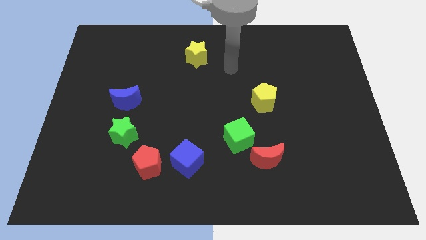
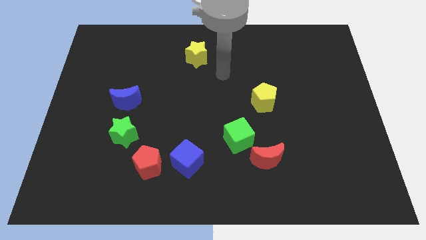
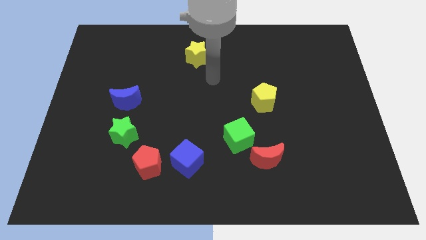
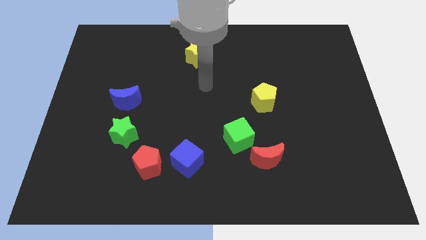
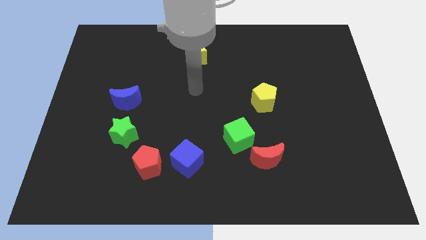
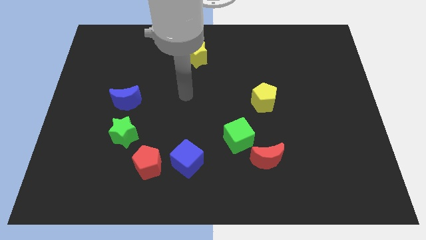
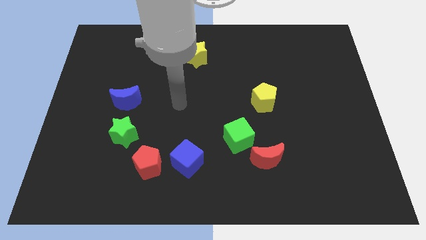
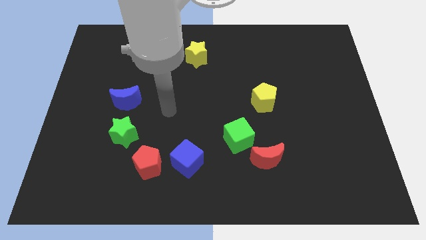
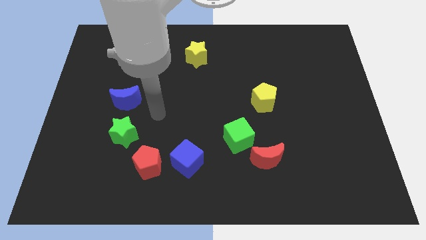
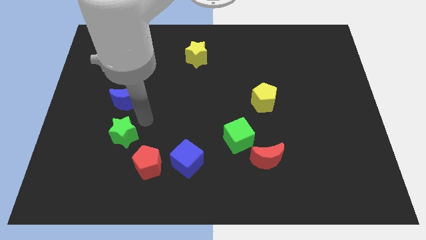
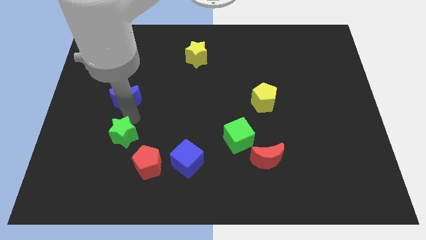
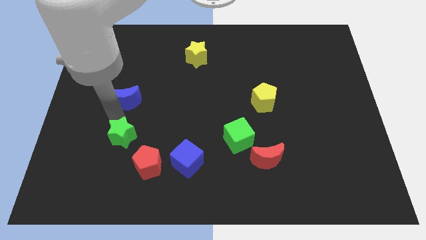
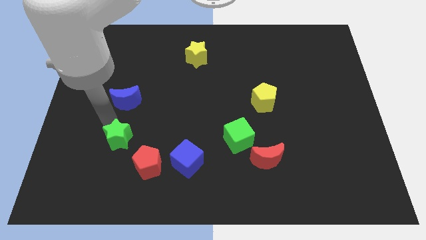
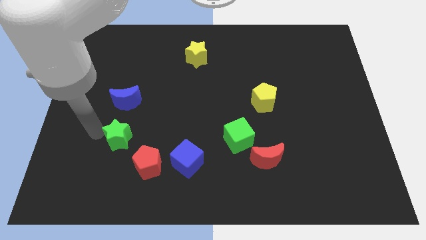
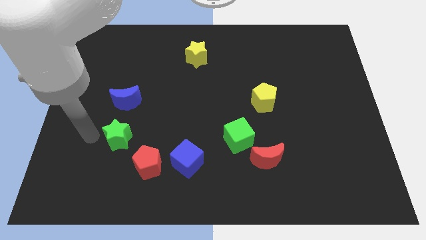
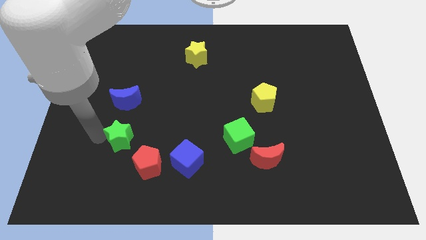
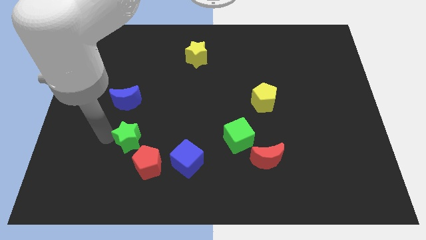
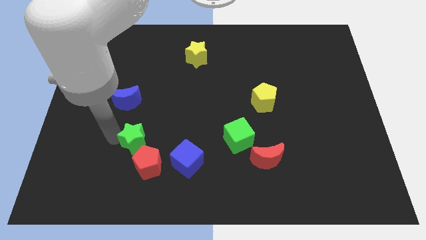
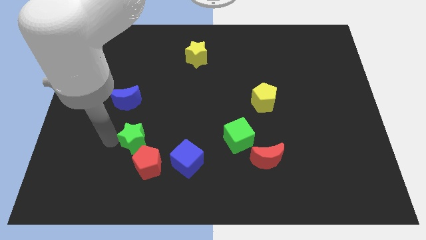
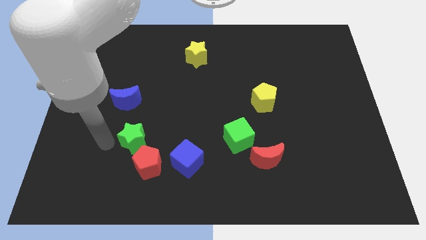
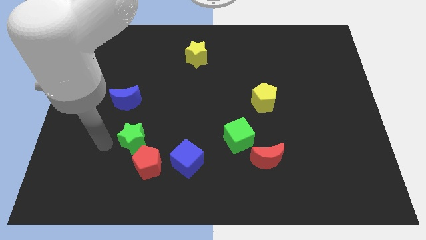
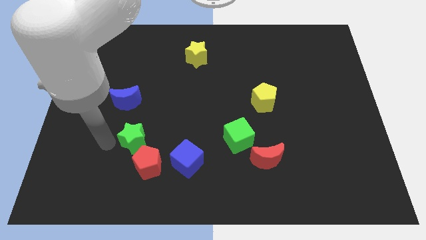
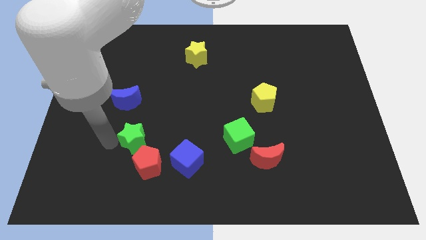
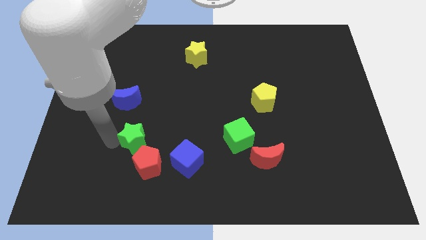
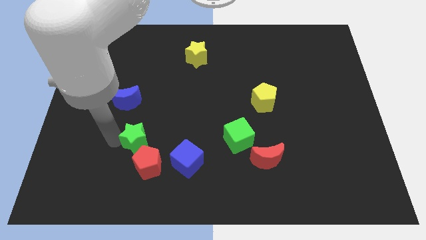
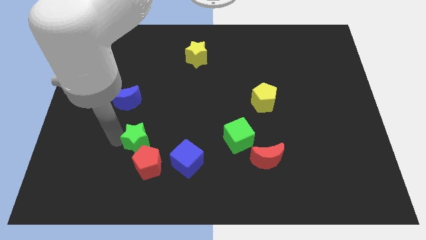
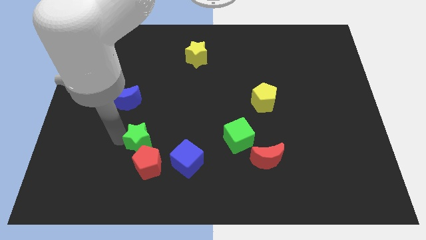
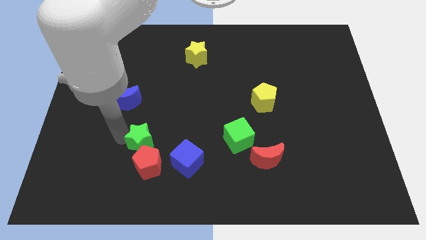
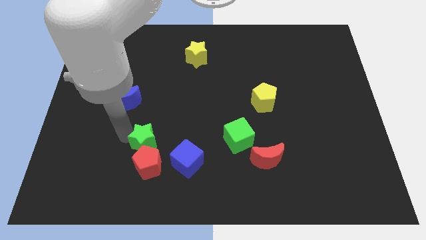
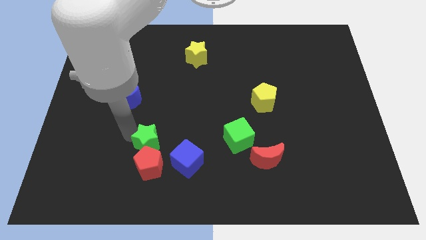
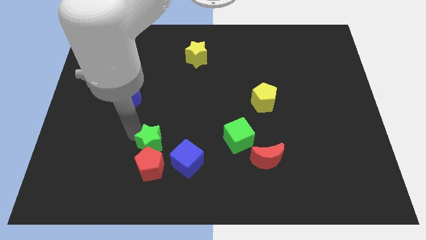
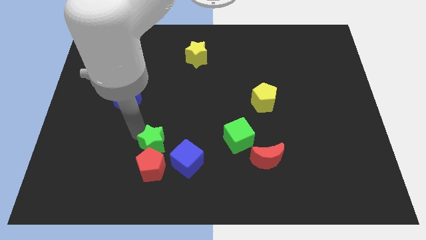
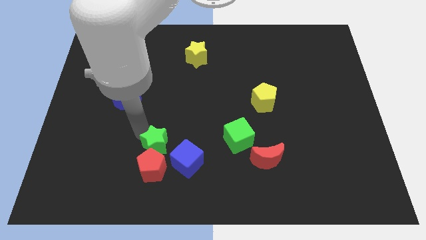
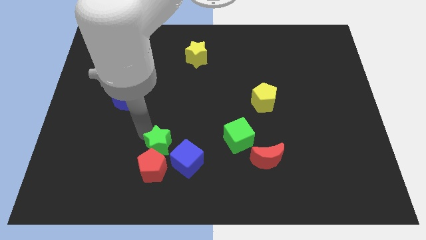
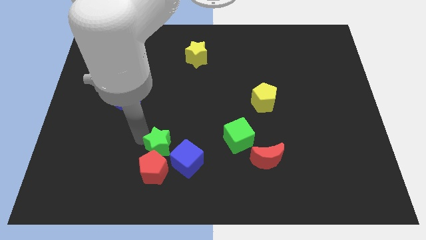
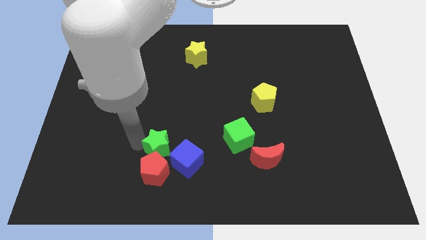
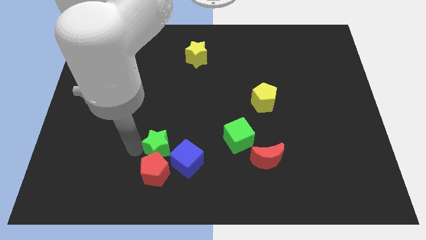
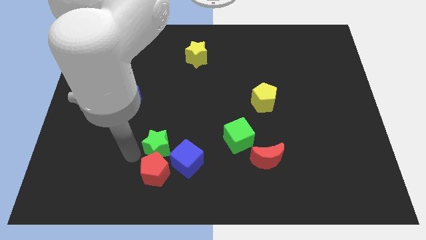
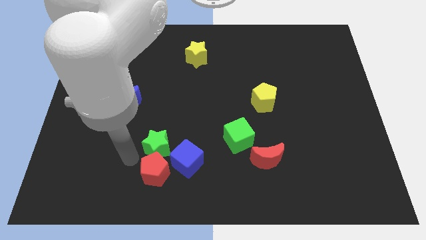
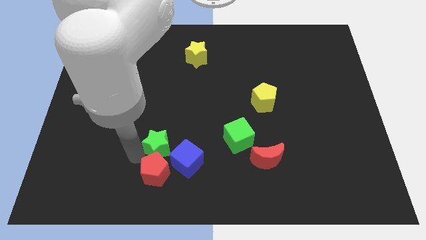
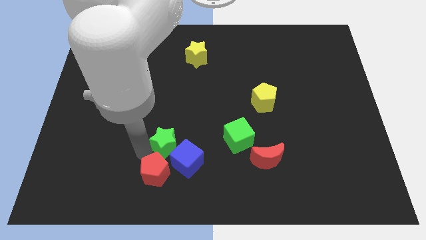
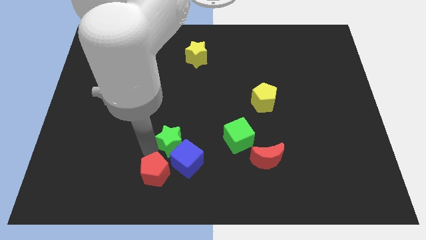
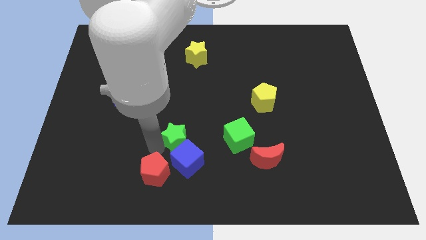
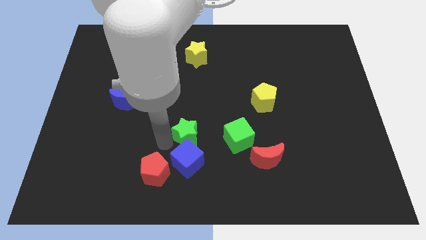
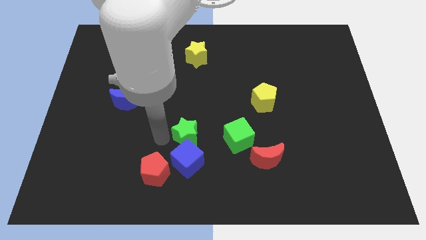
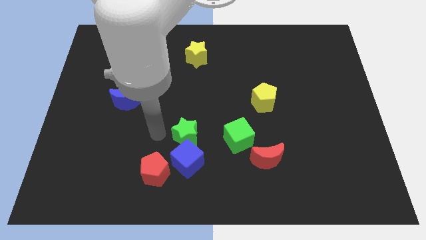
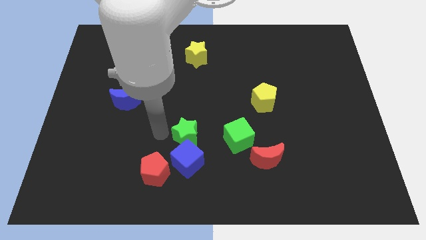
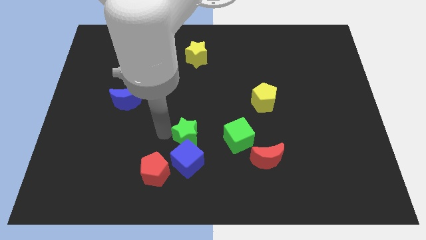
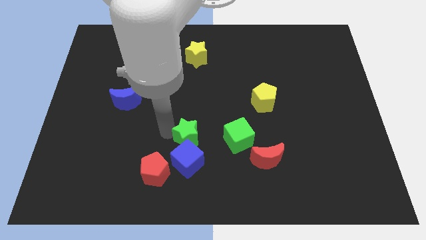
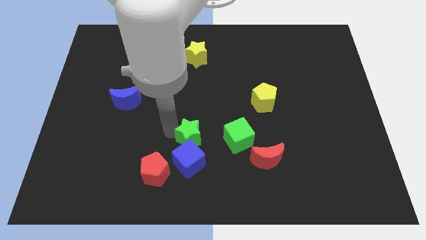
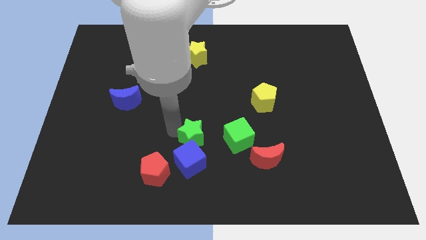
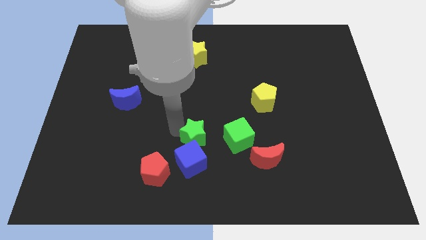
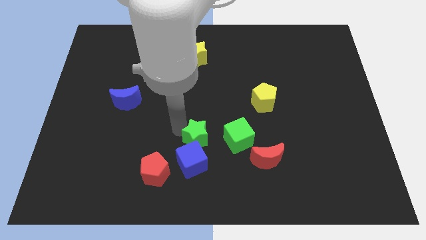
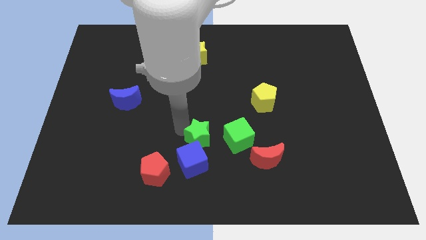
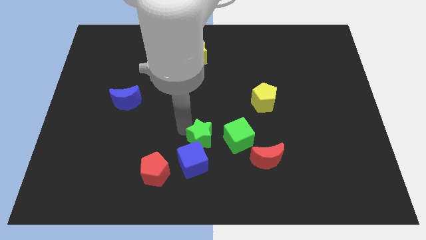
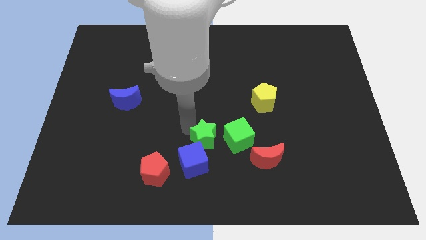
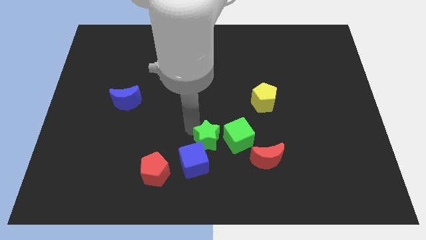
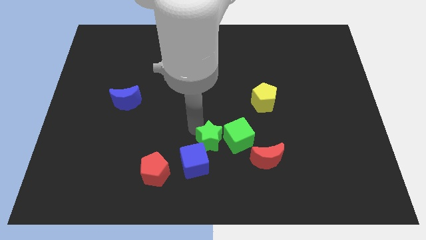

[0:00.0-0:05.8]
push the green star next to the green cube

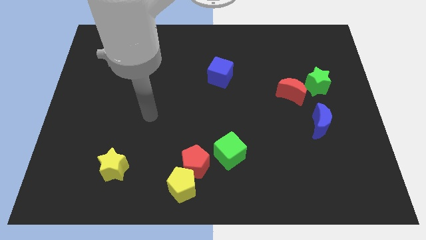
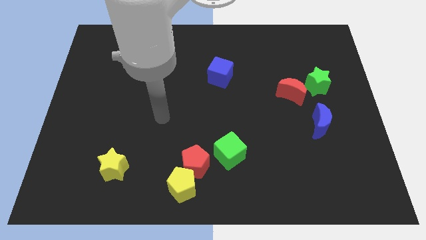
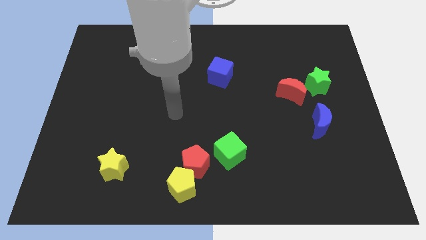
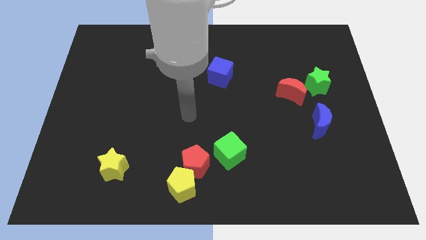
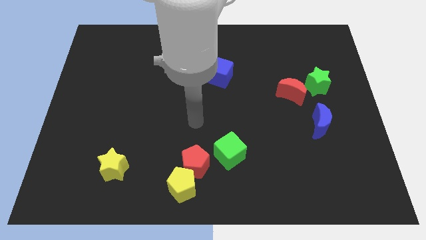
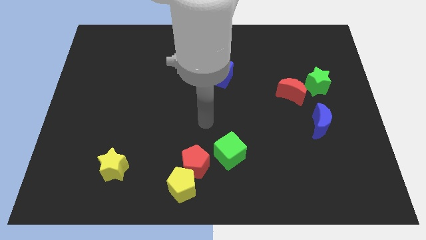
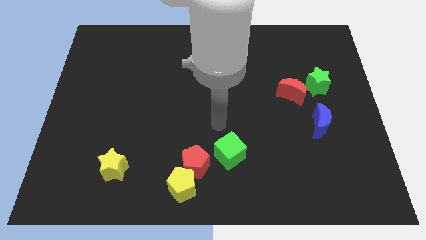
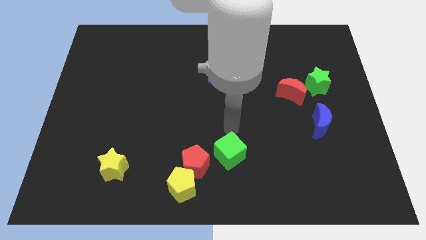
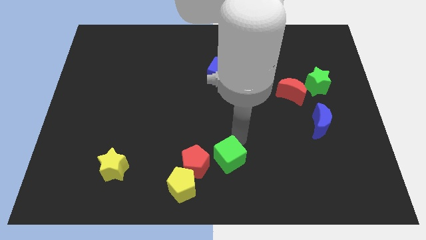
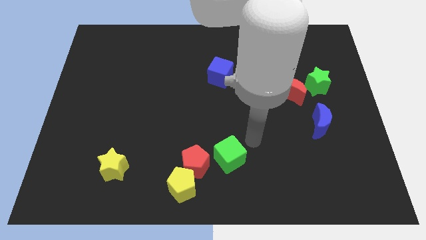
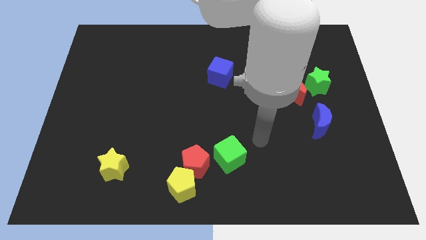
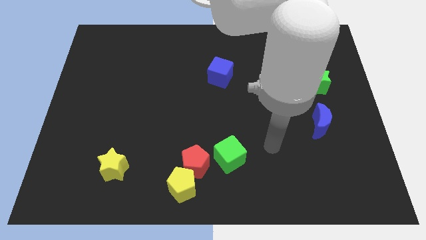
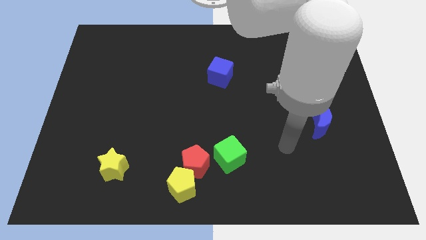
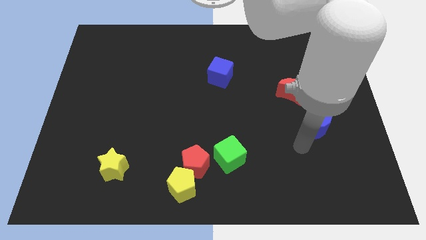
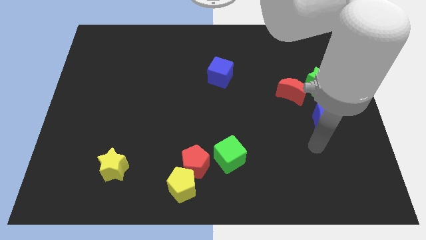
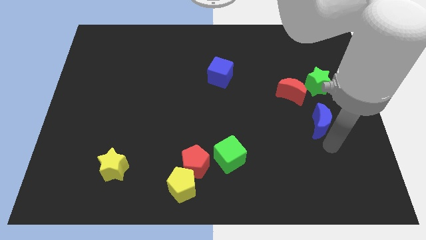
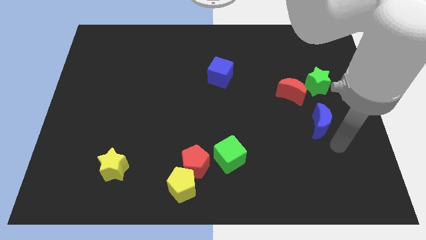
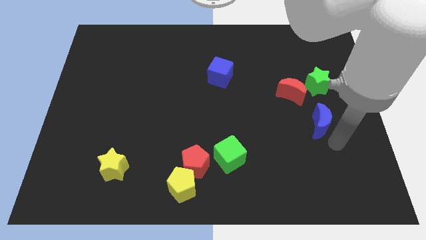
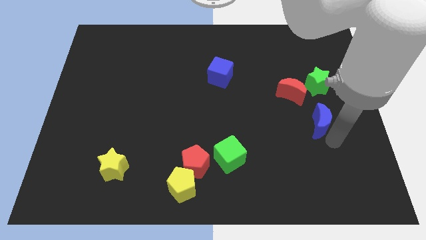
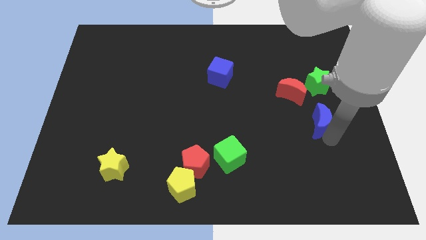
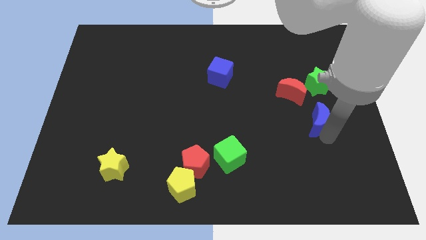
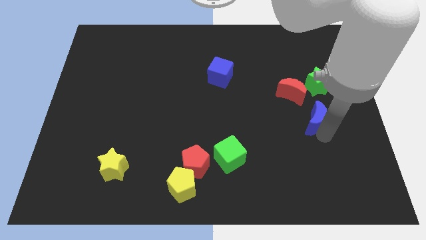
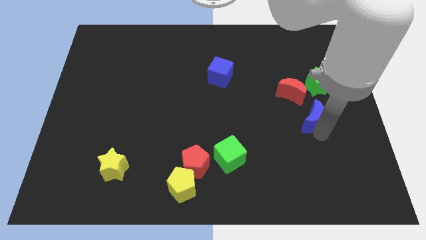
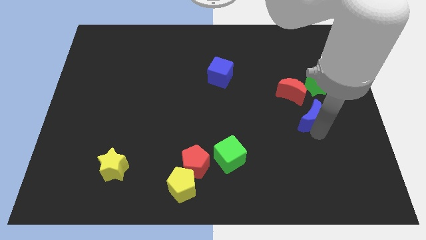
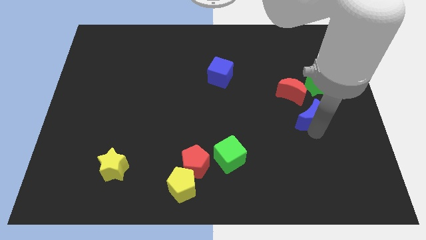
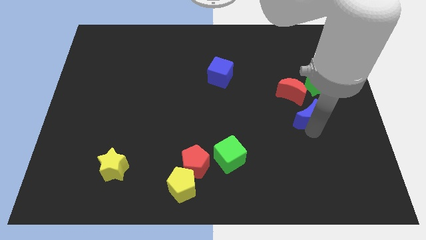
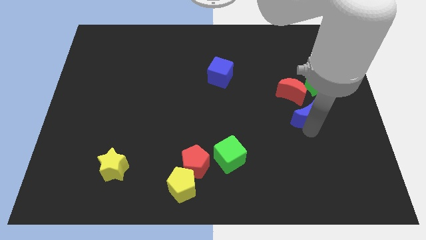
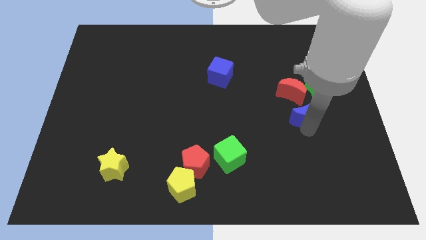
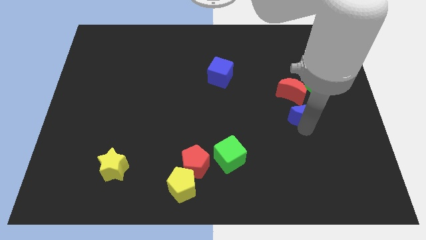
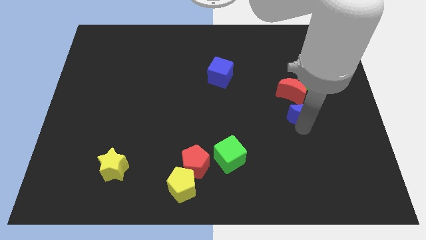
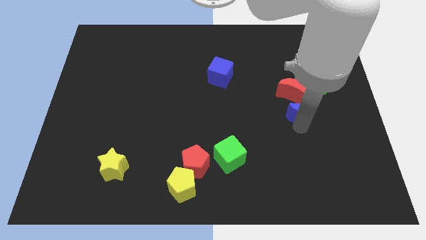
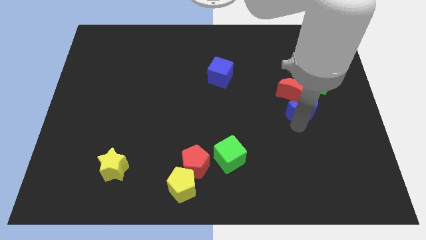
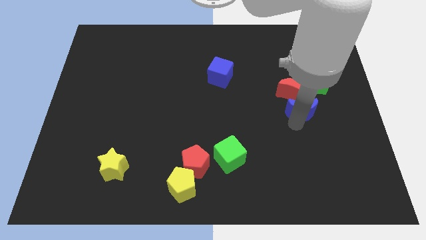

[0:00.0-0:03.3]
move the blue moon towards the red moon
